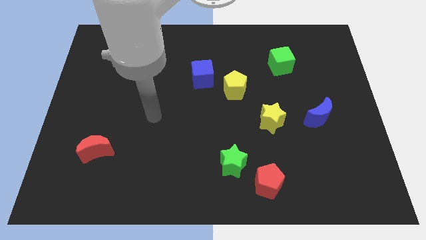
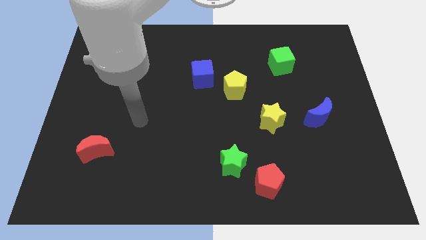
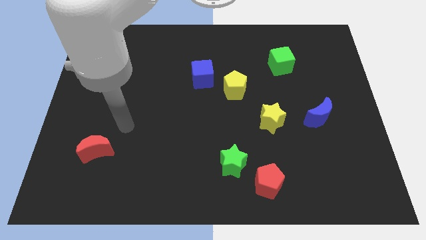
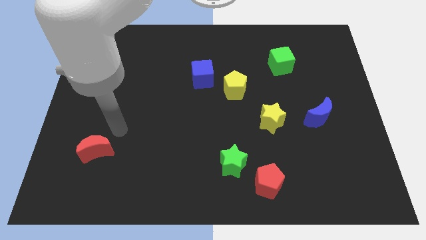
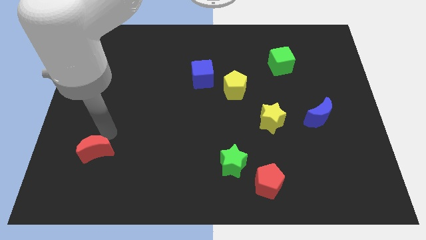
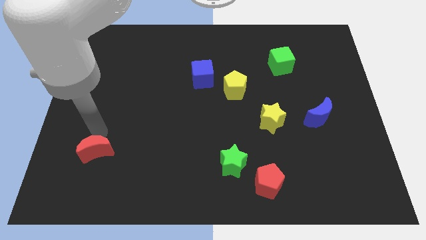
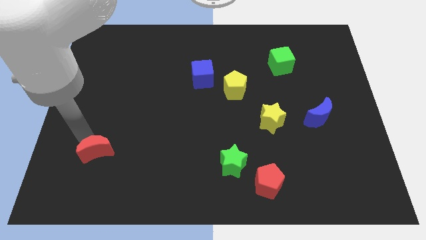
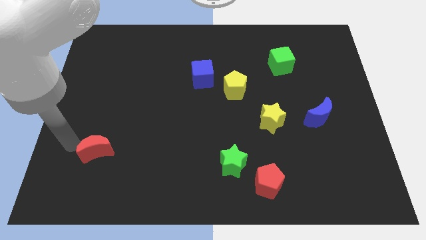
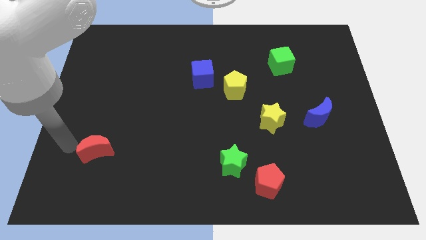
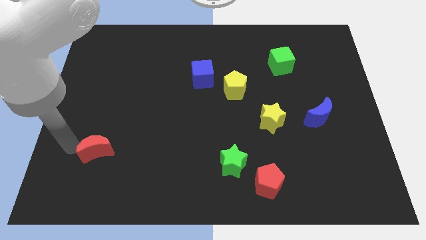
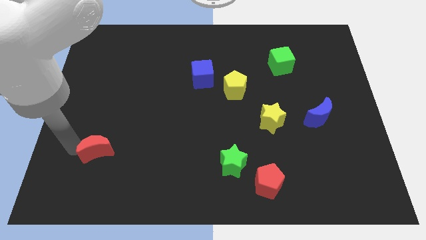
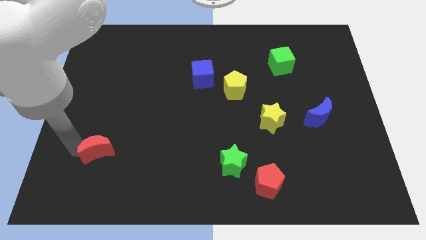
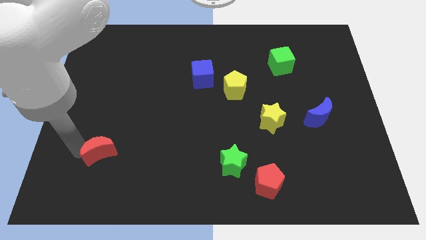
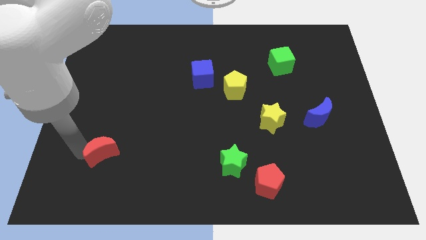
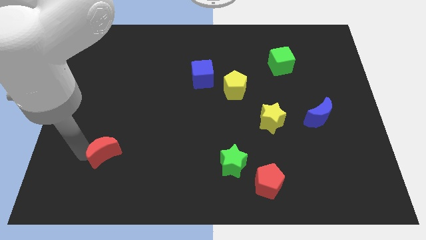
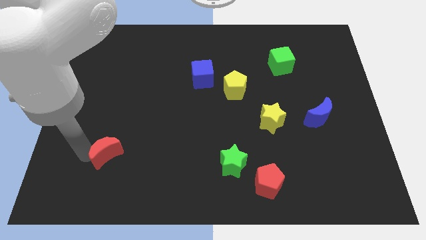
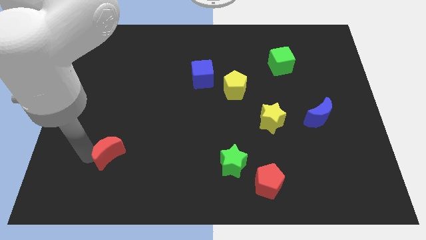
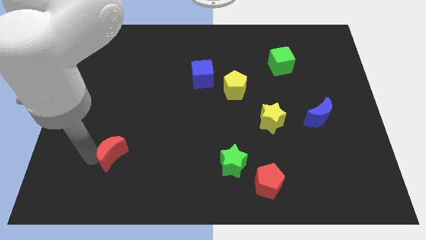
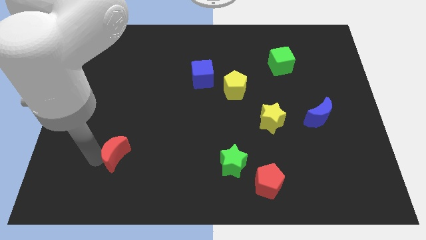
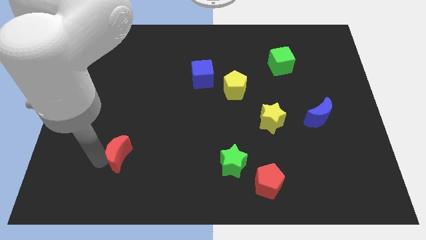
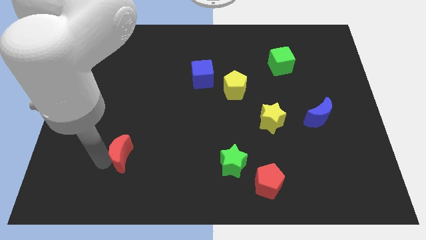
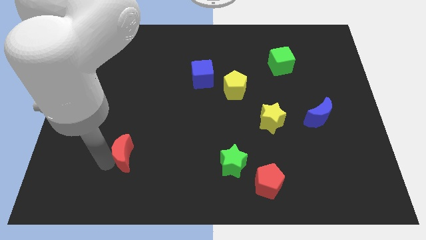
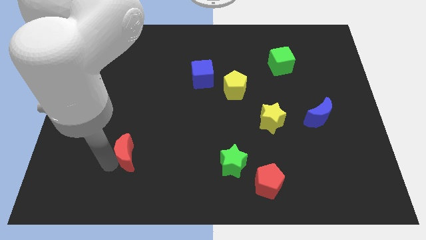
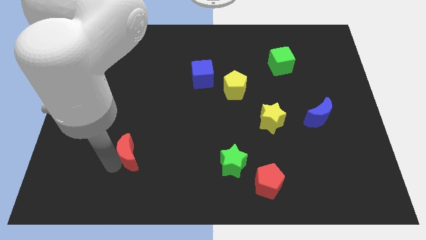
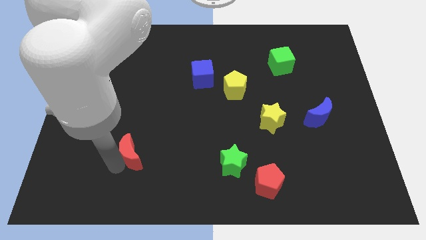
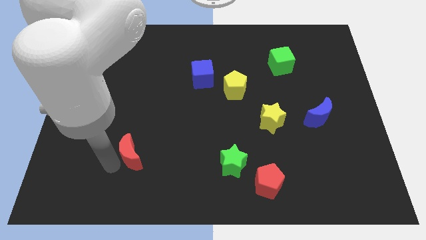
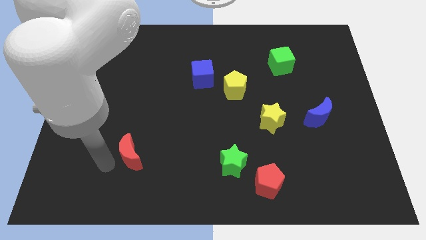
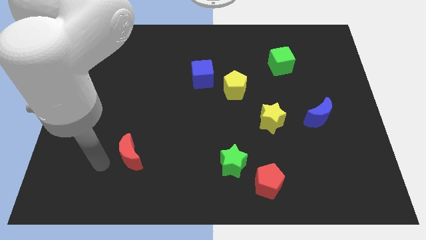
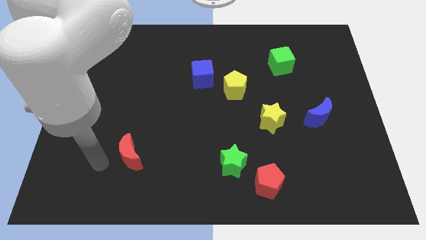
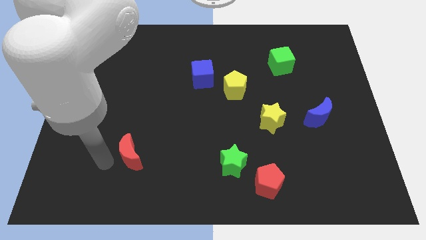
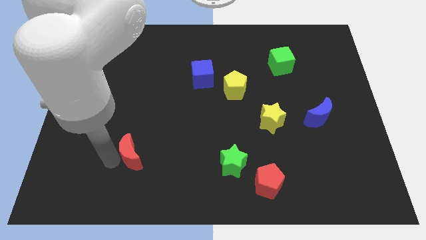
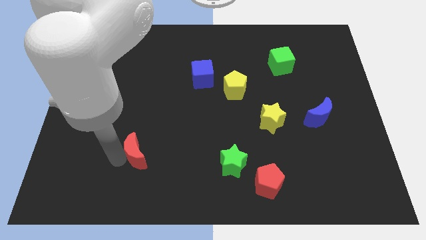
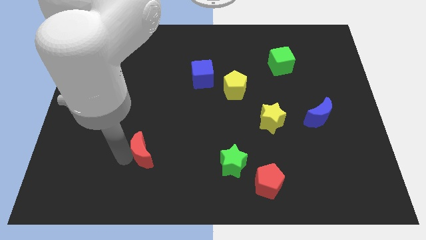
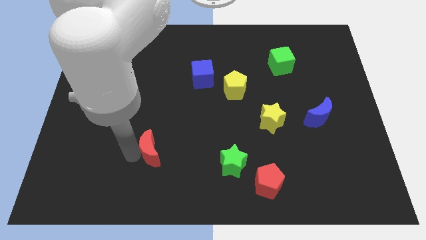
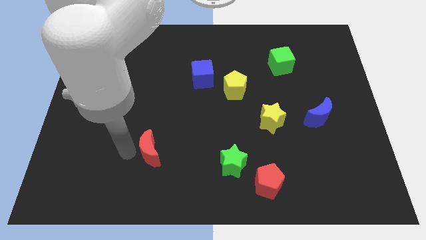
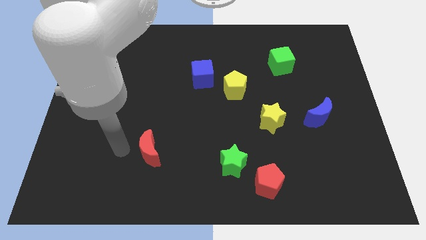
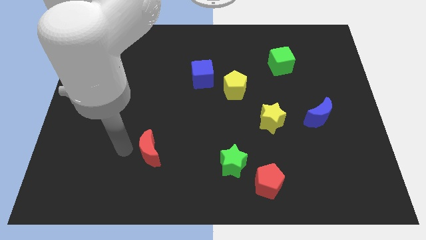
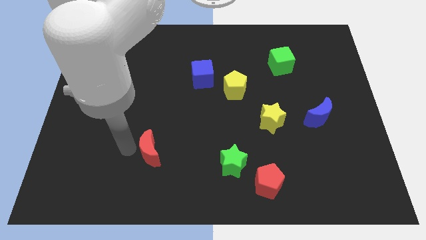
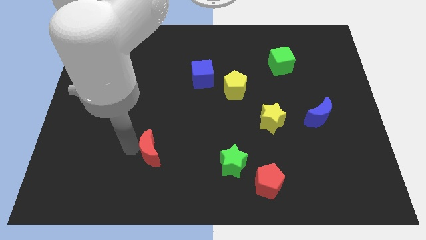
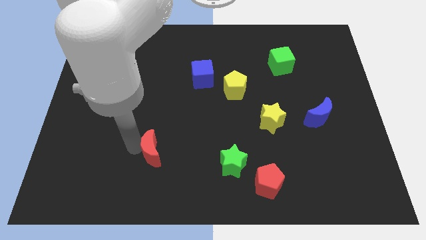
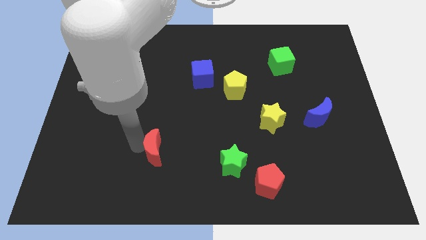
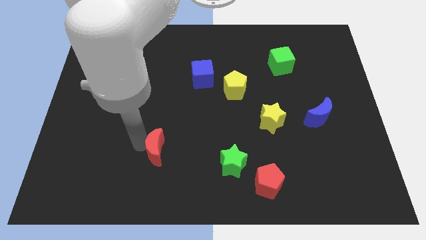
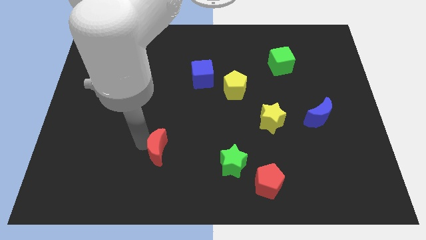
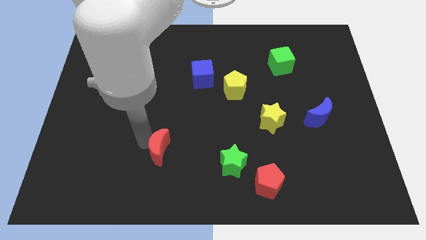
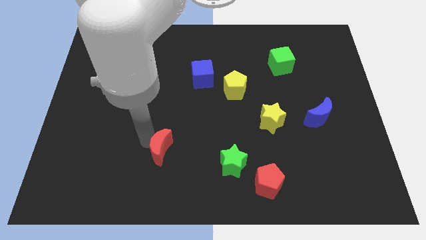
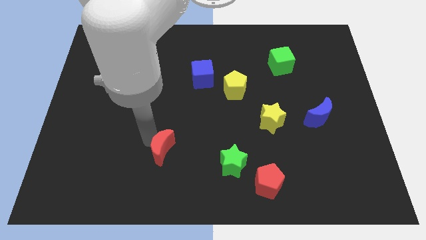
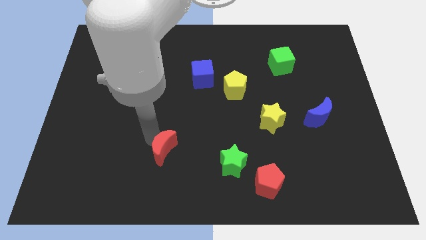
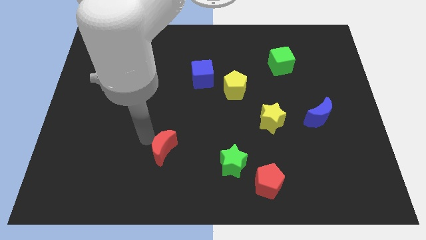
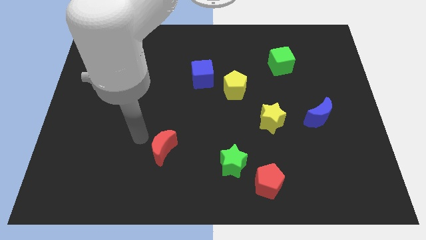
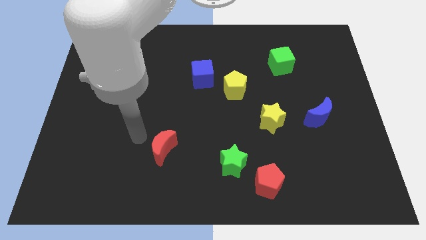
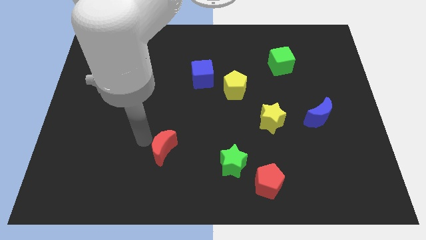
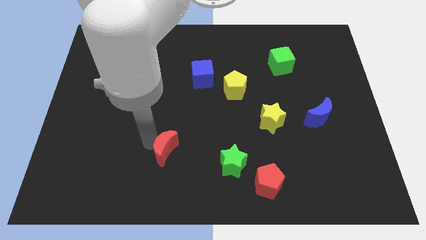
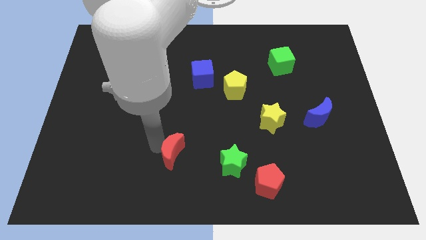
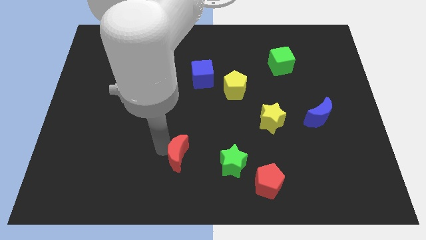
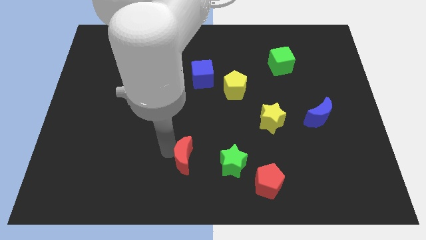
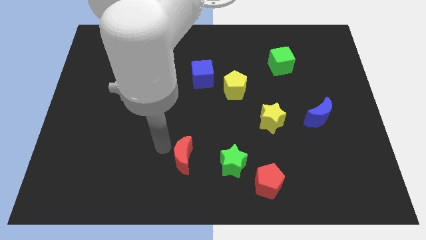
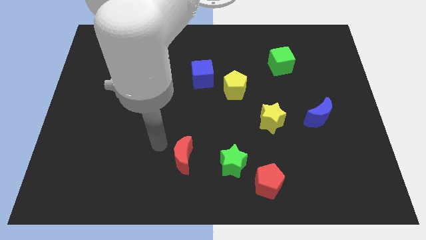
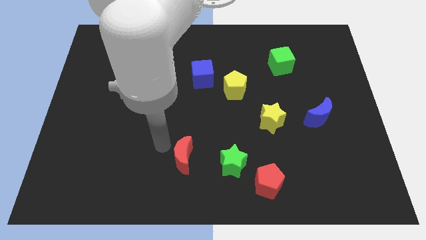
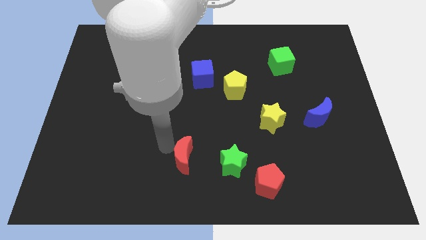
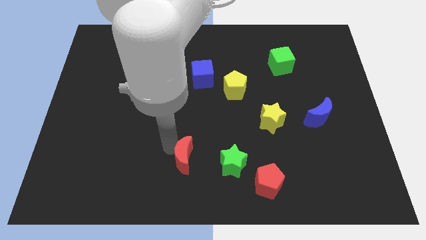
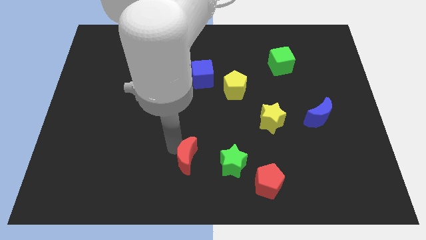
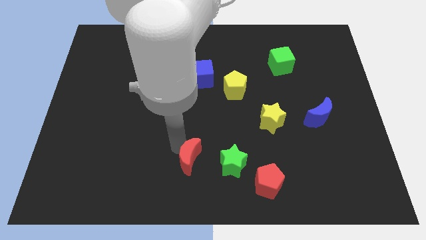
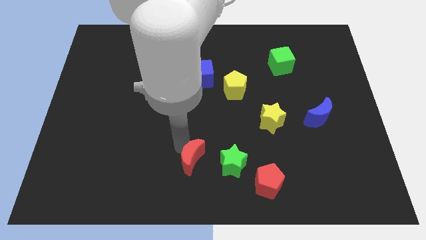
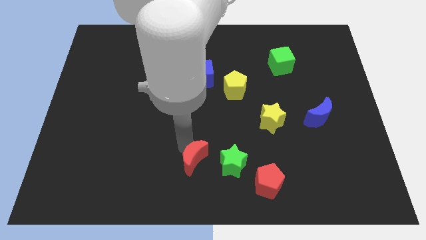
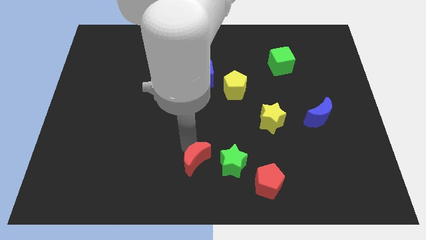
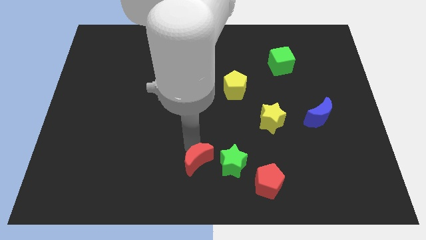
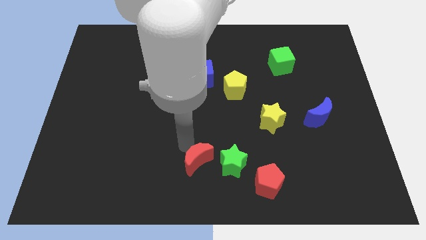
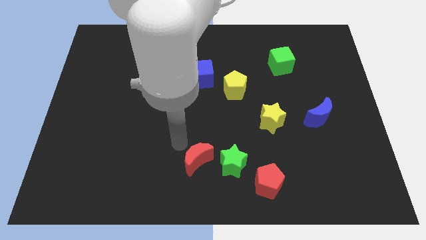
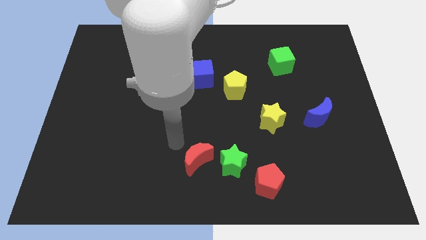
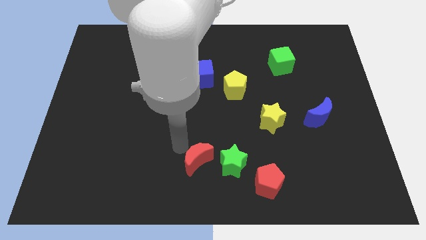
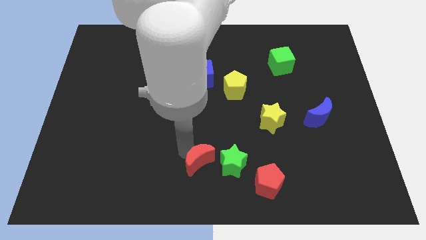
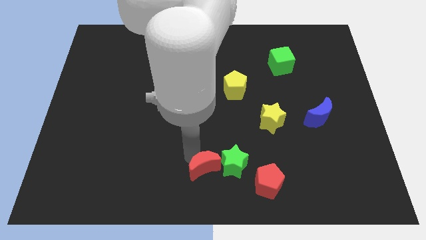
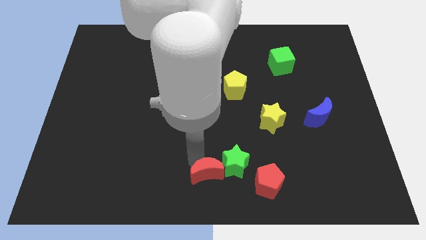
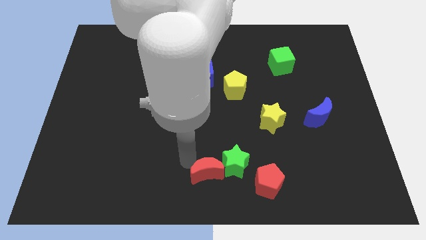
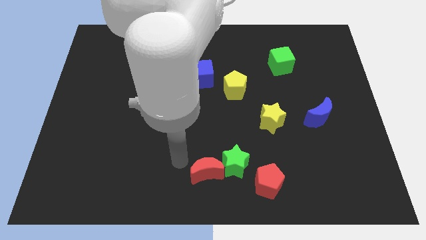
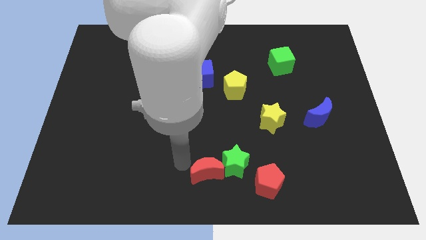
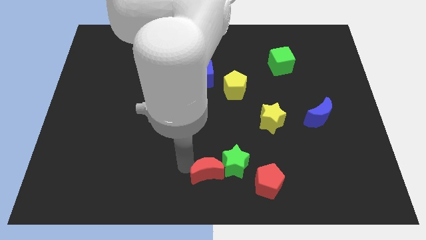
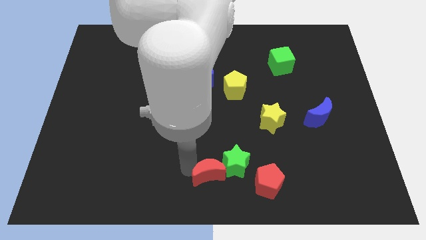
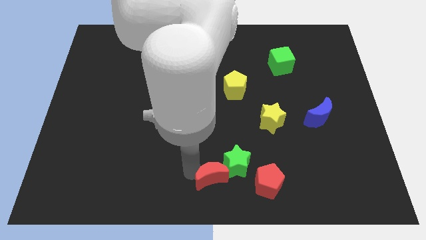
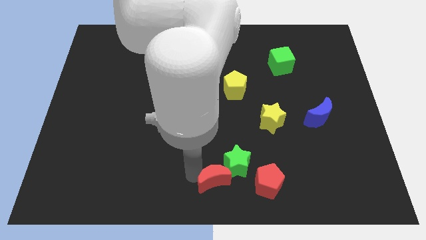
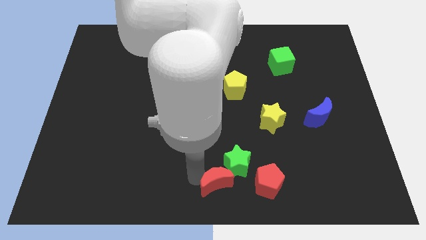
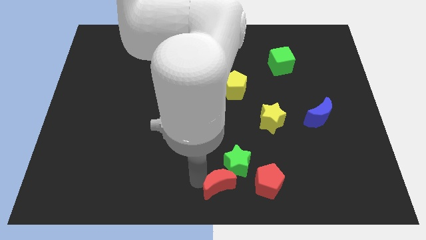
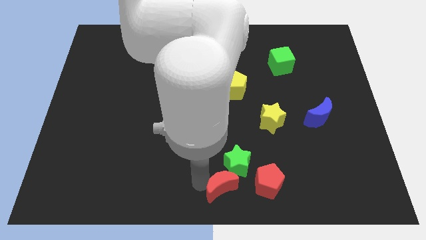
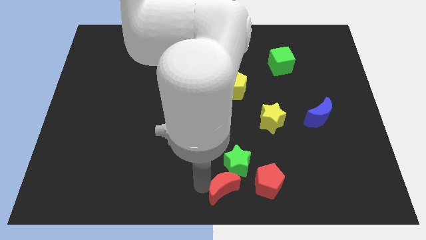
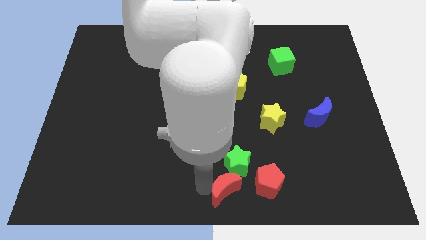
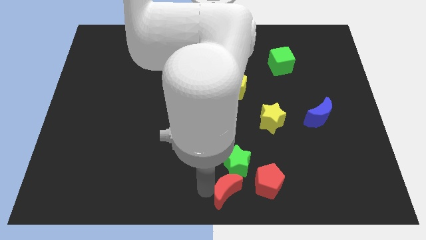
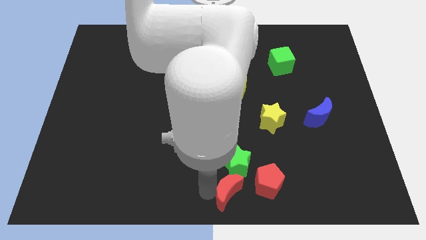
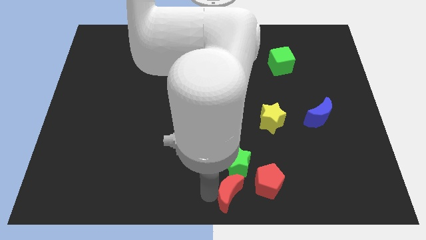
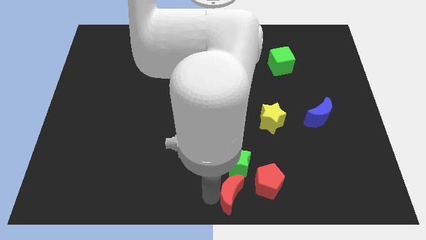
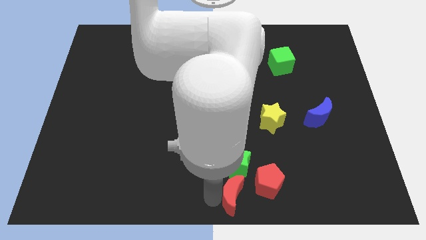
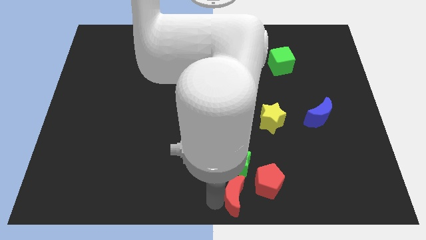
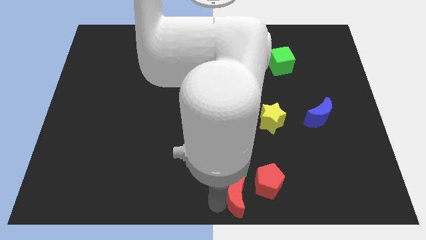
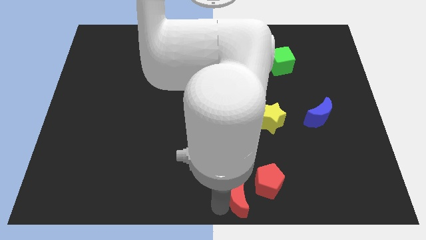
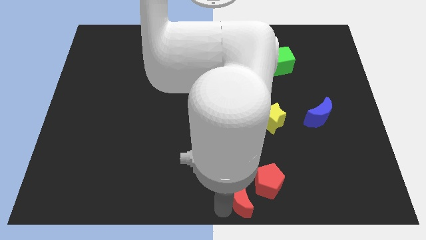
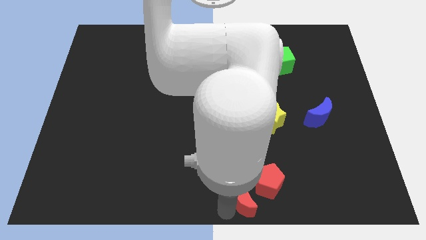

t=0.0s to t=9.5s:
move the red moon close to the red pentagon
